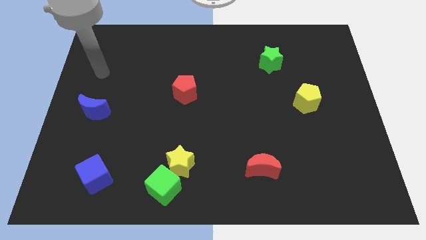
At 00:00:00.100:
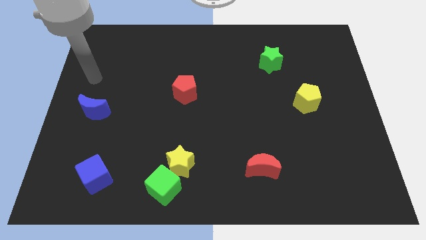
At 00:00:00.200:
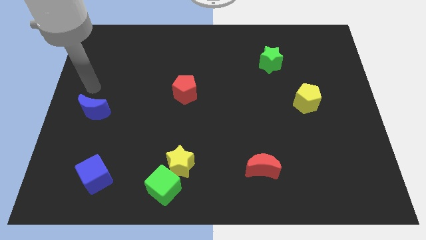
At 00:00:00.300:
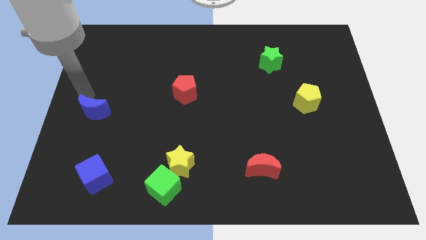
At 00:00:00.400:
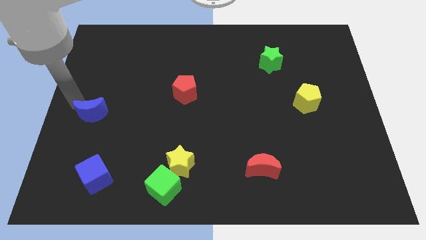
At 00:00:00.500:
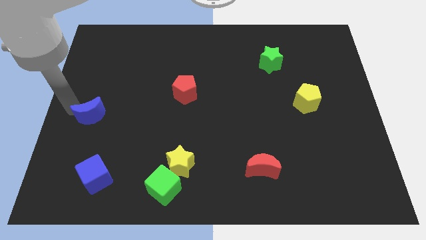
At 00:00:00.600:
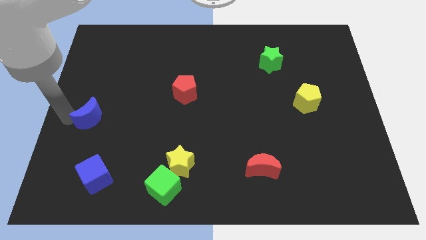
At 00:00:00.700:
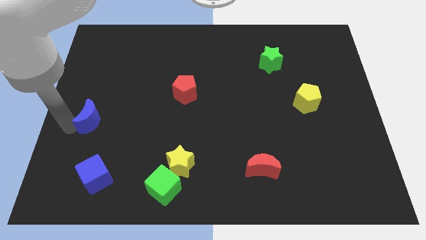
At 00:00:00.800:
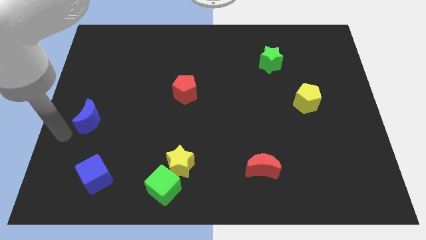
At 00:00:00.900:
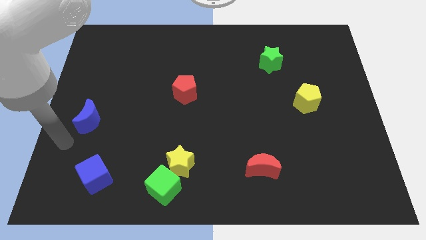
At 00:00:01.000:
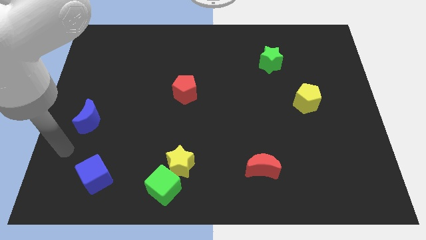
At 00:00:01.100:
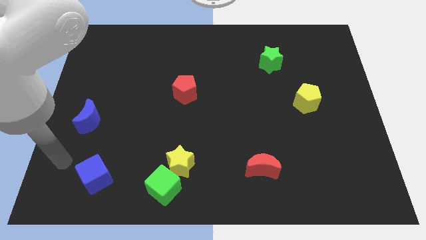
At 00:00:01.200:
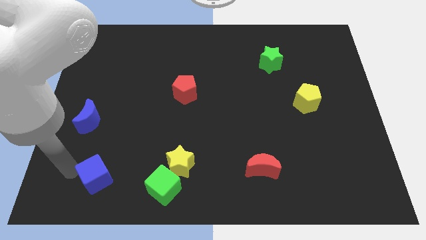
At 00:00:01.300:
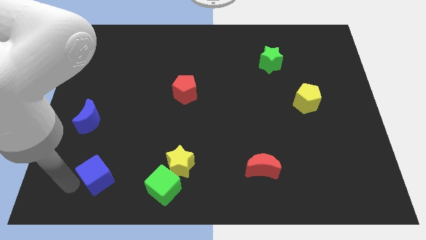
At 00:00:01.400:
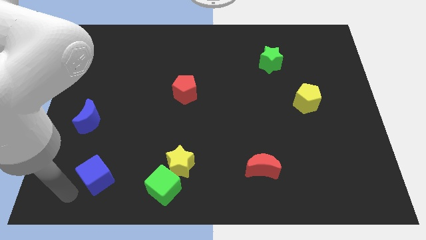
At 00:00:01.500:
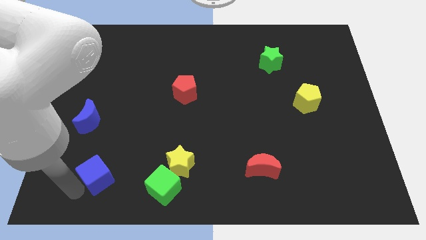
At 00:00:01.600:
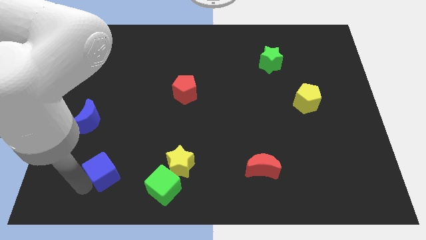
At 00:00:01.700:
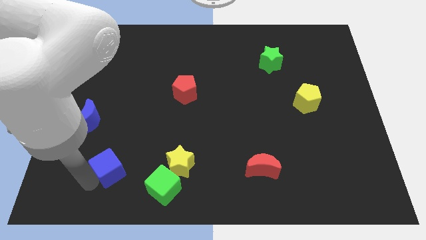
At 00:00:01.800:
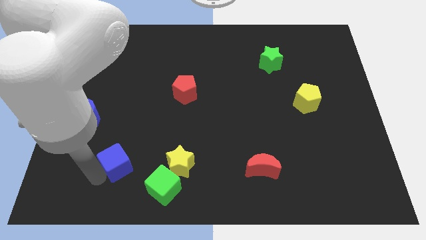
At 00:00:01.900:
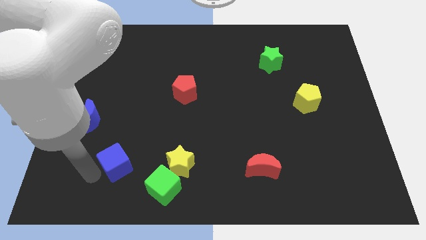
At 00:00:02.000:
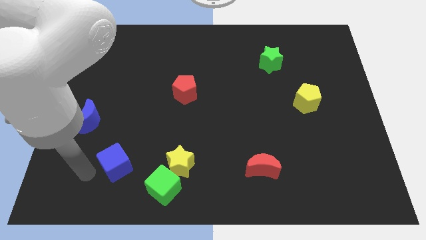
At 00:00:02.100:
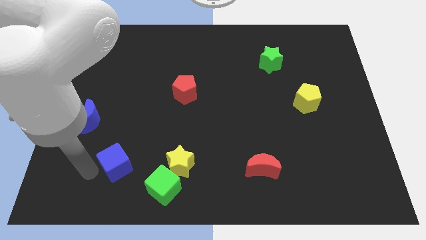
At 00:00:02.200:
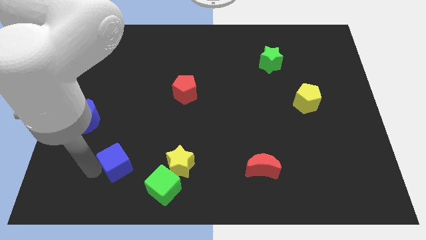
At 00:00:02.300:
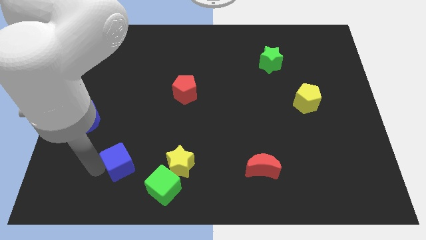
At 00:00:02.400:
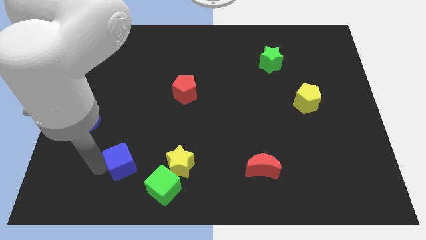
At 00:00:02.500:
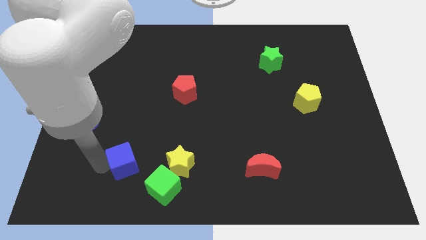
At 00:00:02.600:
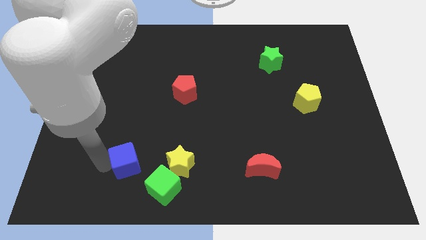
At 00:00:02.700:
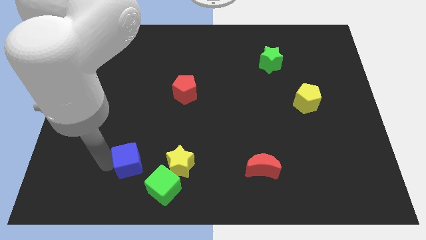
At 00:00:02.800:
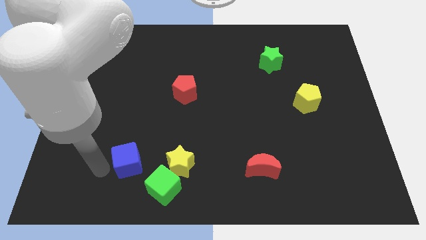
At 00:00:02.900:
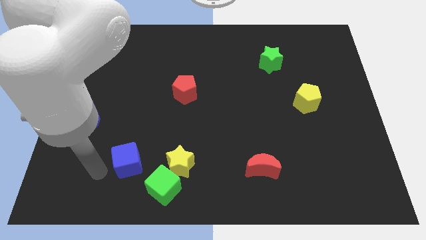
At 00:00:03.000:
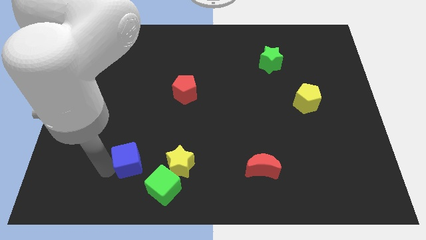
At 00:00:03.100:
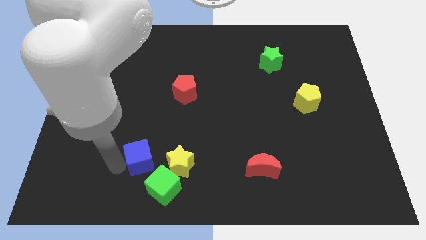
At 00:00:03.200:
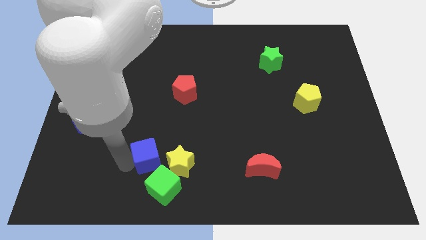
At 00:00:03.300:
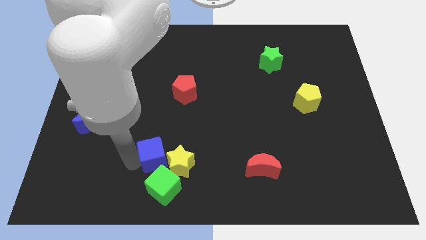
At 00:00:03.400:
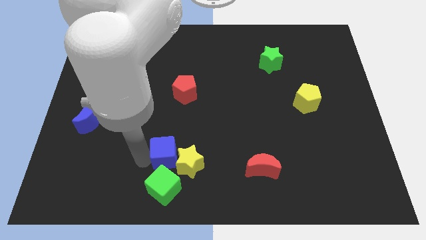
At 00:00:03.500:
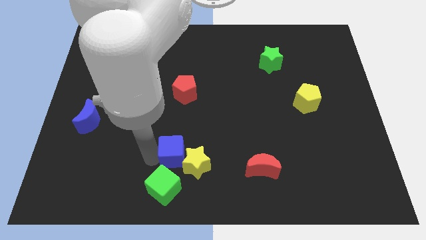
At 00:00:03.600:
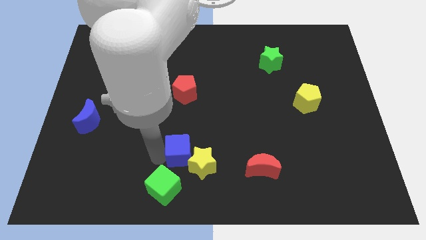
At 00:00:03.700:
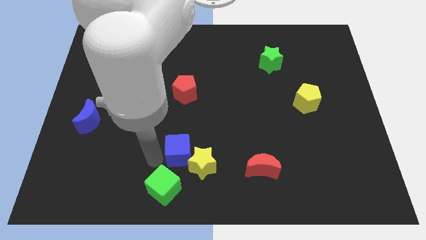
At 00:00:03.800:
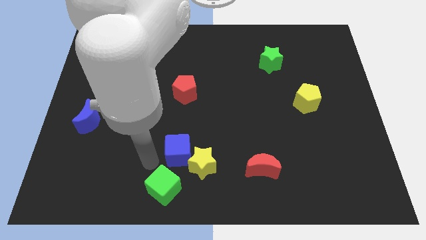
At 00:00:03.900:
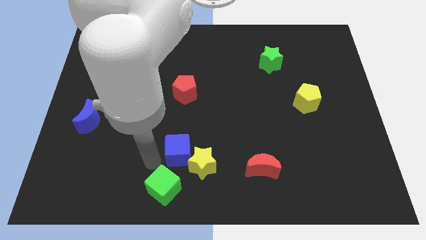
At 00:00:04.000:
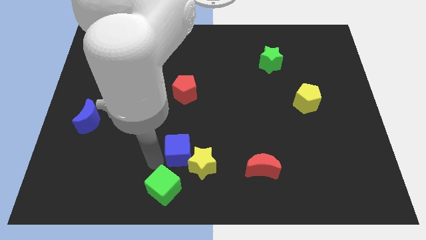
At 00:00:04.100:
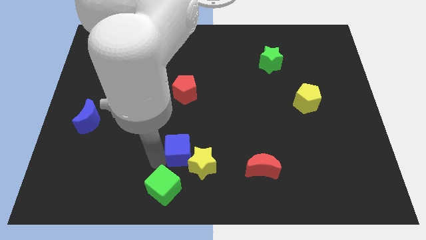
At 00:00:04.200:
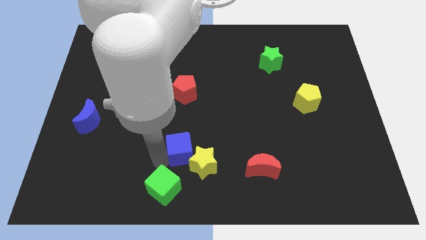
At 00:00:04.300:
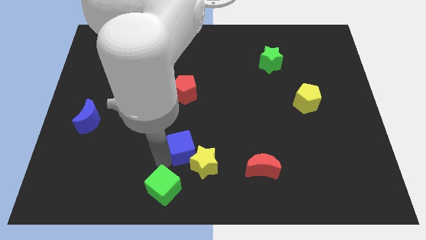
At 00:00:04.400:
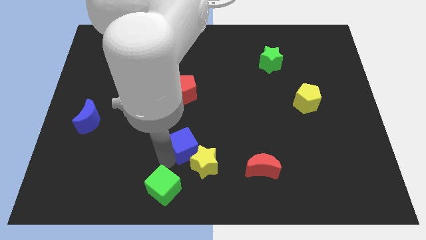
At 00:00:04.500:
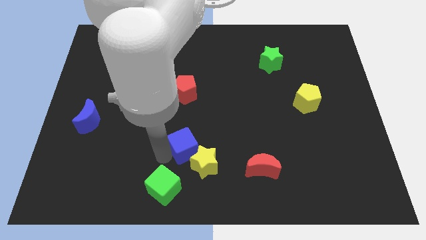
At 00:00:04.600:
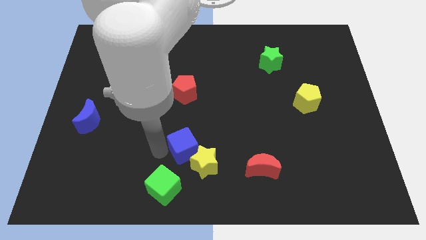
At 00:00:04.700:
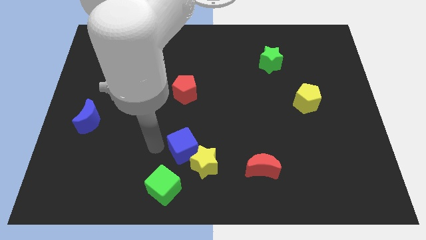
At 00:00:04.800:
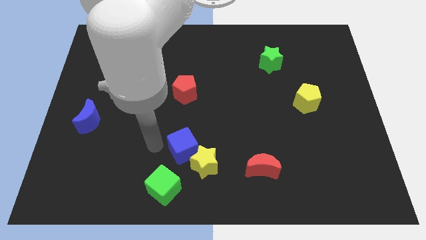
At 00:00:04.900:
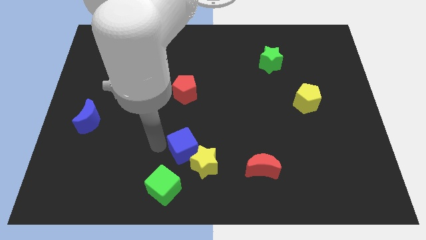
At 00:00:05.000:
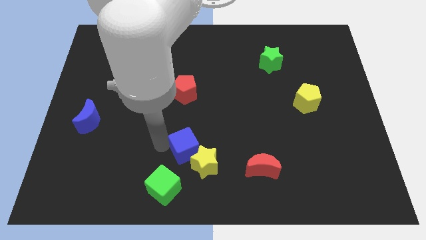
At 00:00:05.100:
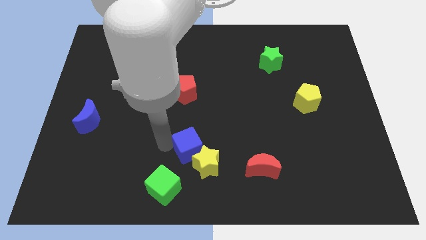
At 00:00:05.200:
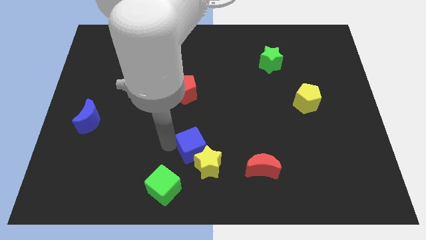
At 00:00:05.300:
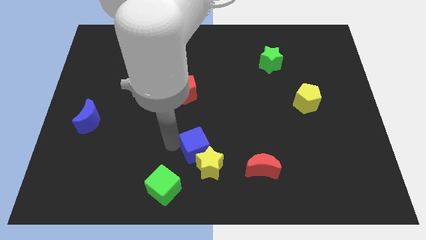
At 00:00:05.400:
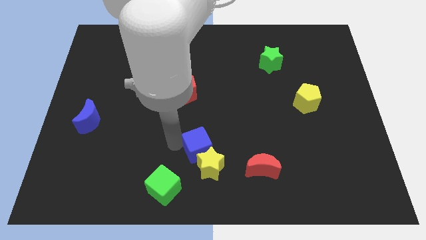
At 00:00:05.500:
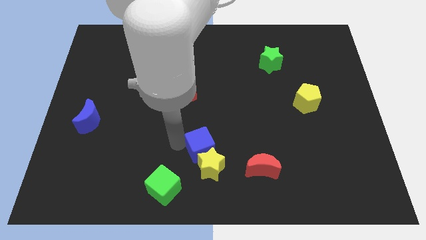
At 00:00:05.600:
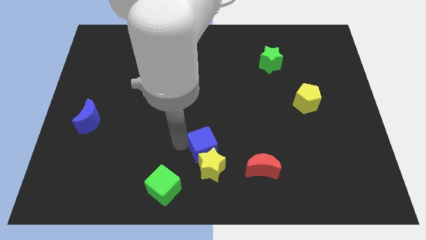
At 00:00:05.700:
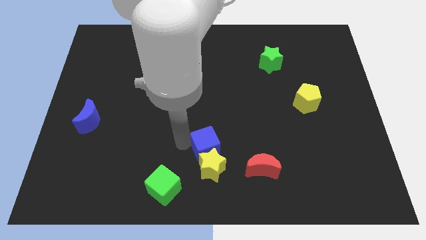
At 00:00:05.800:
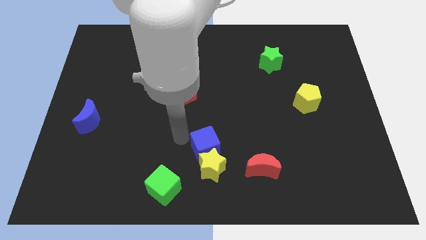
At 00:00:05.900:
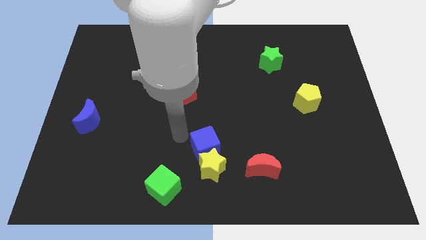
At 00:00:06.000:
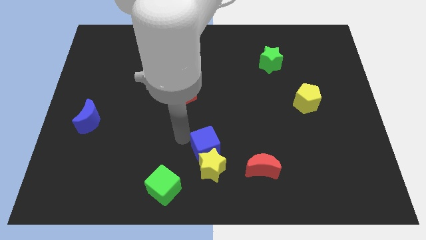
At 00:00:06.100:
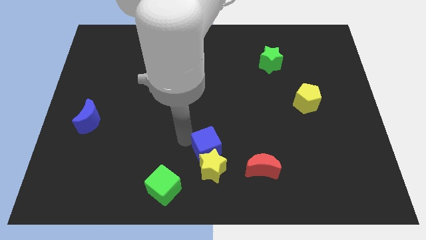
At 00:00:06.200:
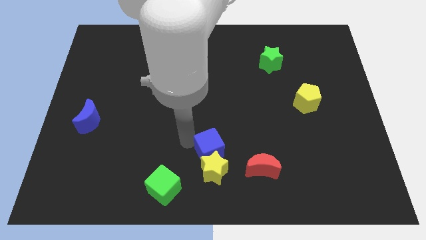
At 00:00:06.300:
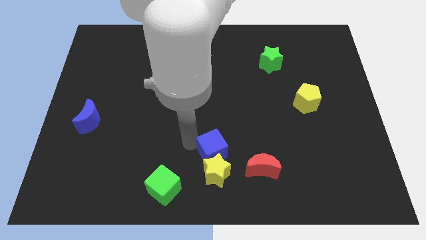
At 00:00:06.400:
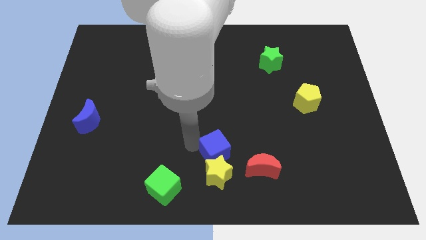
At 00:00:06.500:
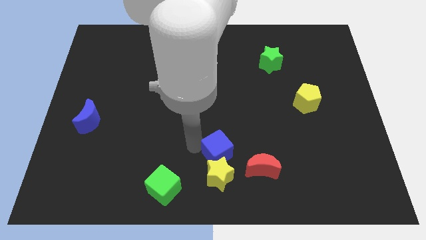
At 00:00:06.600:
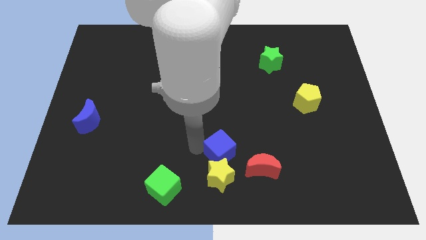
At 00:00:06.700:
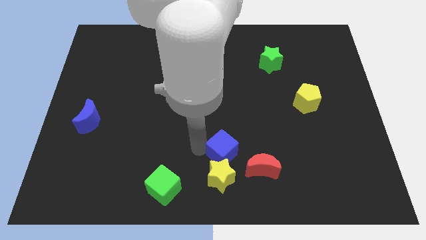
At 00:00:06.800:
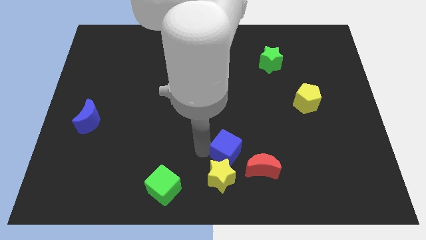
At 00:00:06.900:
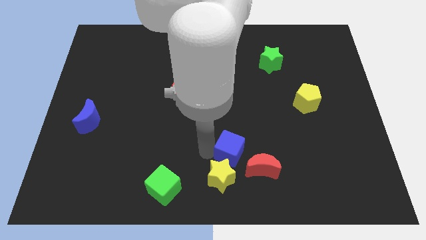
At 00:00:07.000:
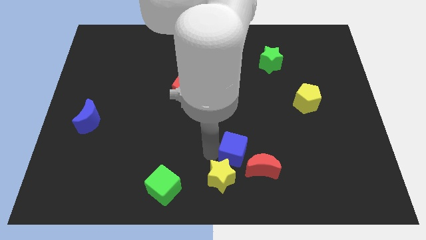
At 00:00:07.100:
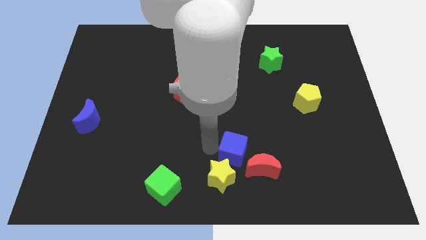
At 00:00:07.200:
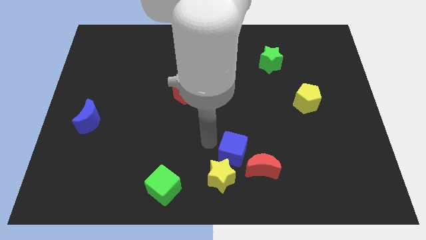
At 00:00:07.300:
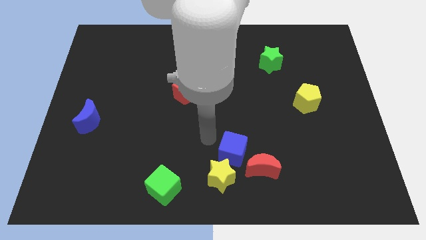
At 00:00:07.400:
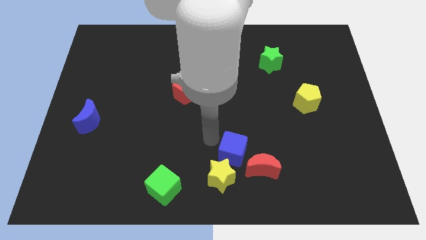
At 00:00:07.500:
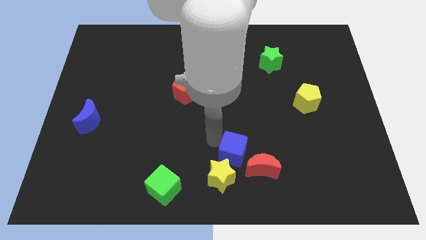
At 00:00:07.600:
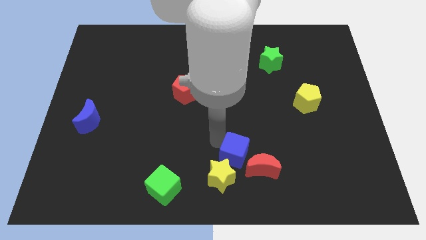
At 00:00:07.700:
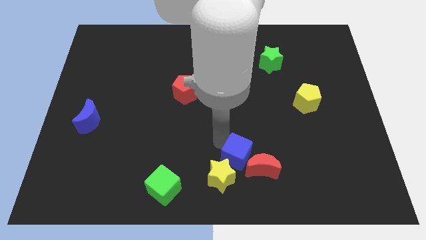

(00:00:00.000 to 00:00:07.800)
push the blue cube to the red moon
